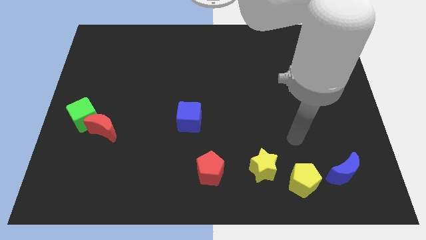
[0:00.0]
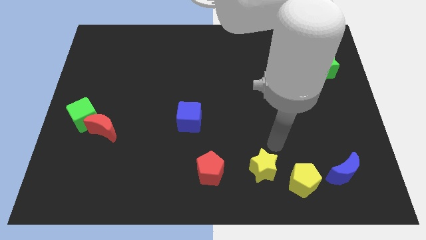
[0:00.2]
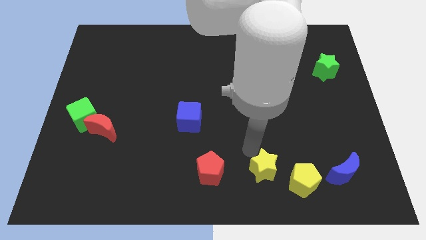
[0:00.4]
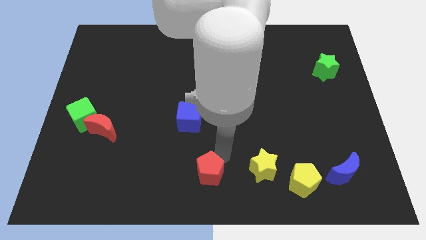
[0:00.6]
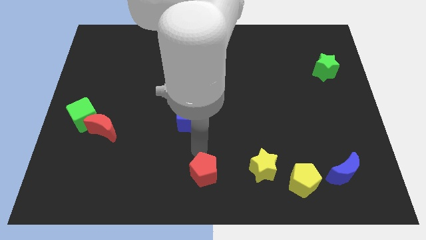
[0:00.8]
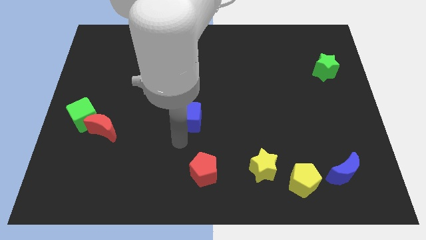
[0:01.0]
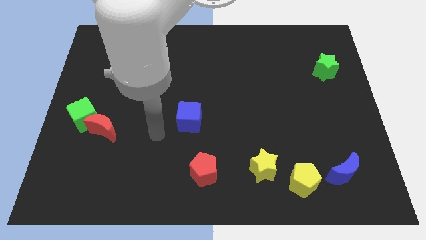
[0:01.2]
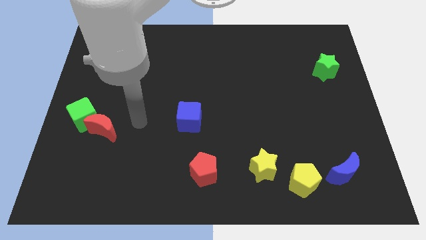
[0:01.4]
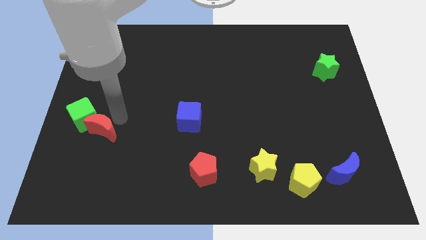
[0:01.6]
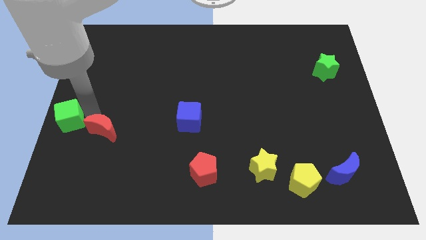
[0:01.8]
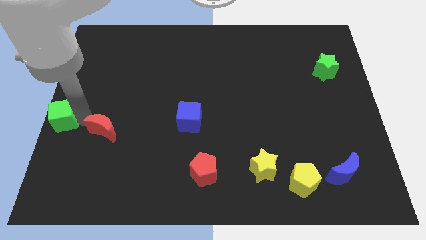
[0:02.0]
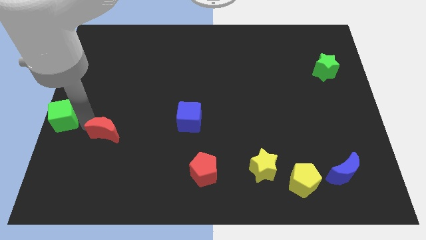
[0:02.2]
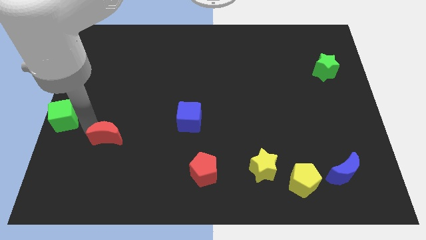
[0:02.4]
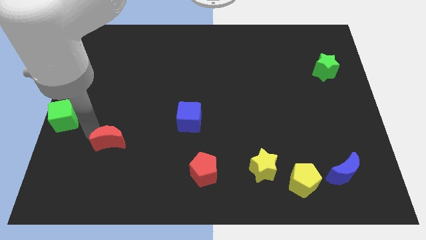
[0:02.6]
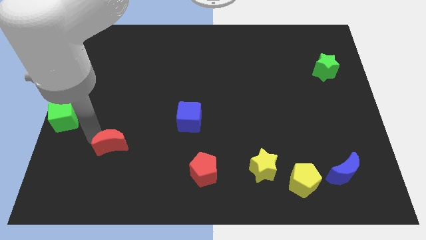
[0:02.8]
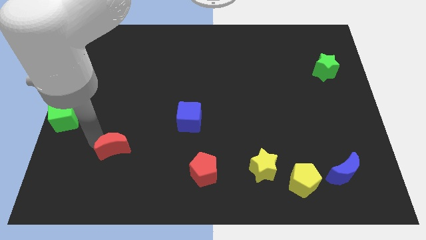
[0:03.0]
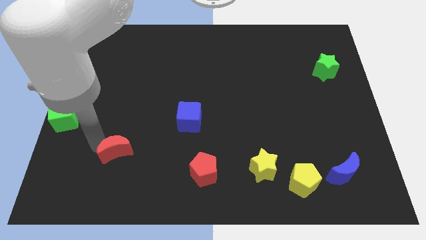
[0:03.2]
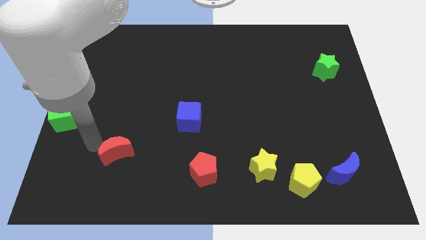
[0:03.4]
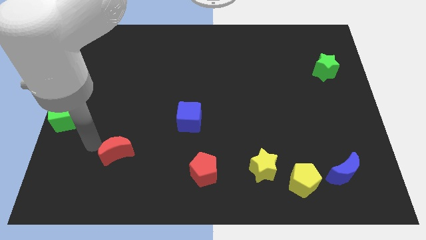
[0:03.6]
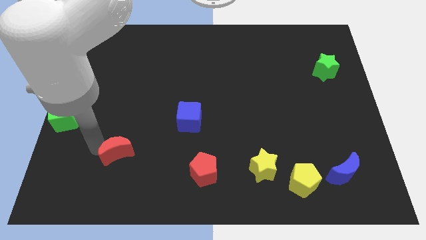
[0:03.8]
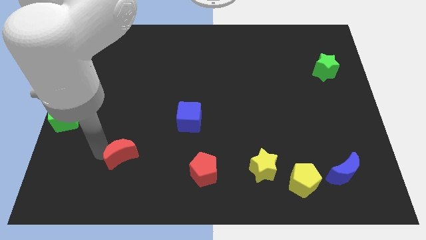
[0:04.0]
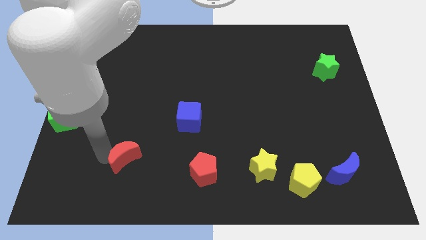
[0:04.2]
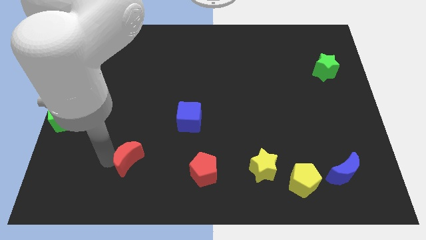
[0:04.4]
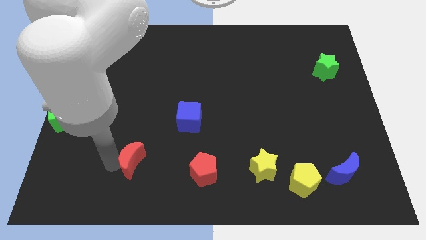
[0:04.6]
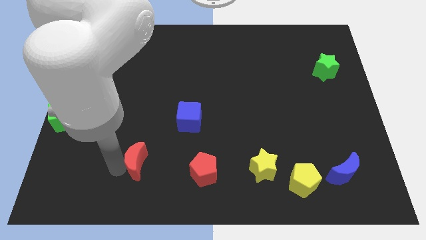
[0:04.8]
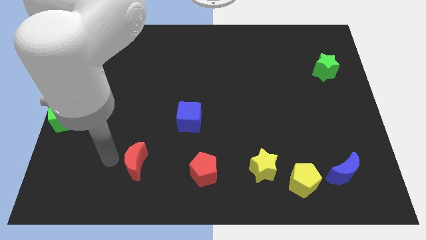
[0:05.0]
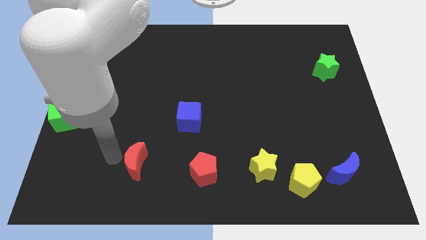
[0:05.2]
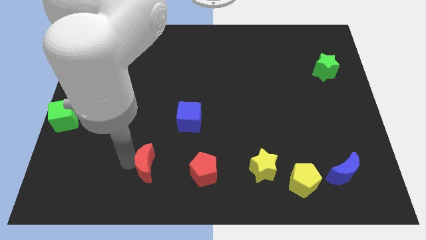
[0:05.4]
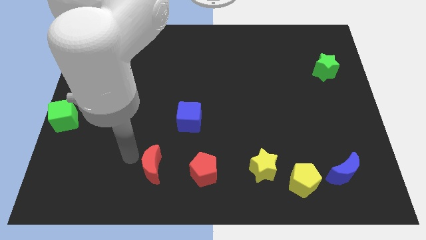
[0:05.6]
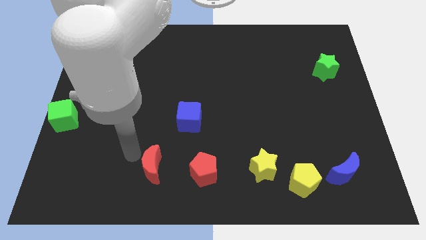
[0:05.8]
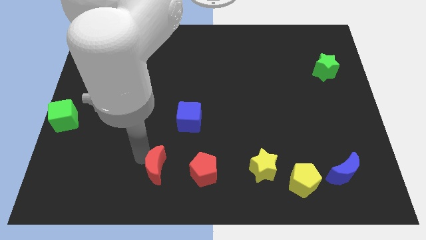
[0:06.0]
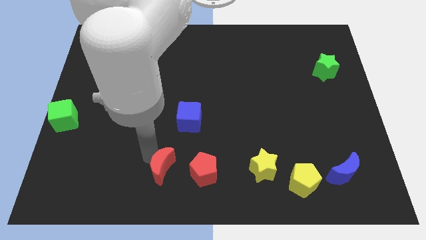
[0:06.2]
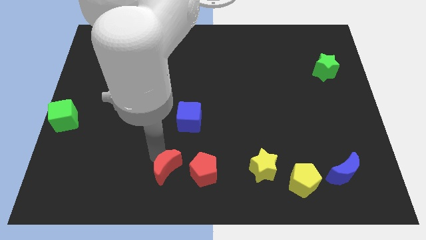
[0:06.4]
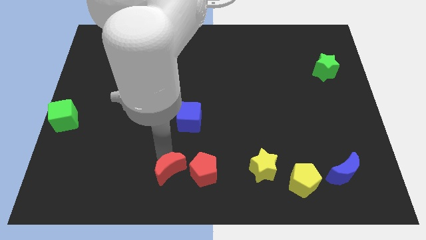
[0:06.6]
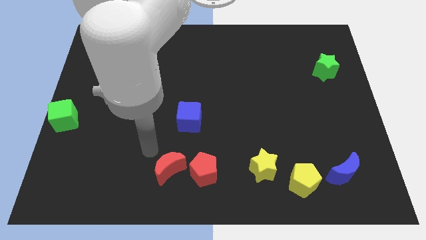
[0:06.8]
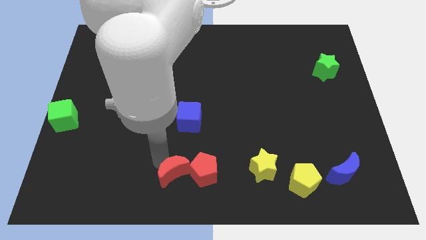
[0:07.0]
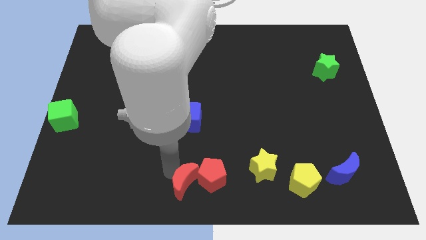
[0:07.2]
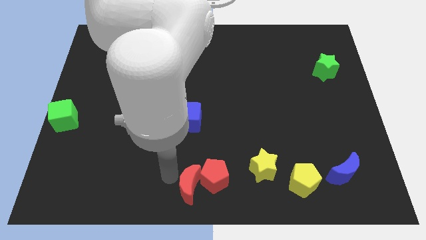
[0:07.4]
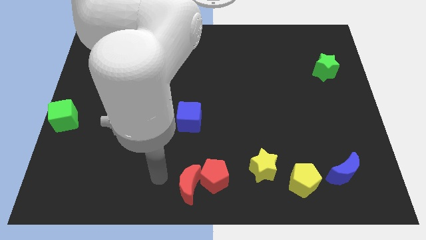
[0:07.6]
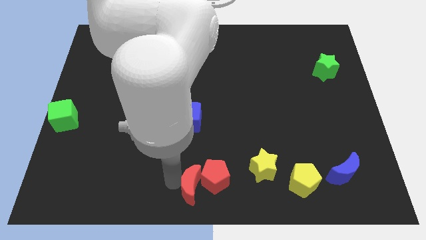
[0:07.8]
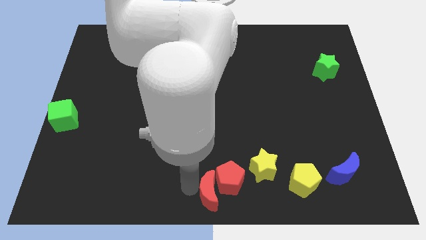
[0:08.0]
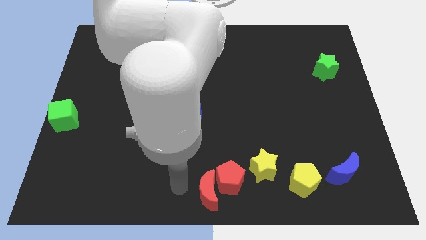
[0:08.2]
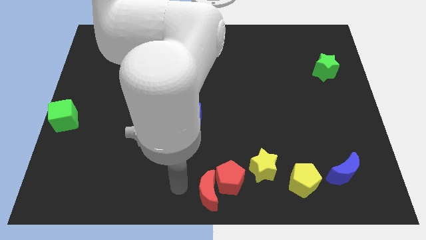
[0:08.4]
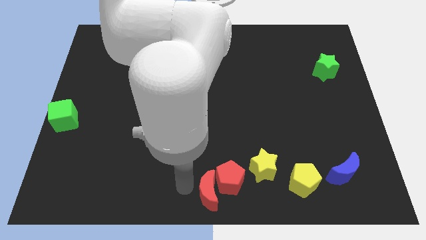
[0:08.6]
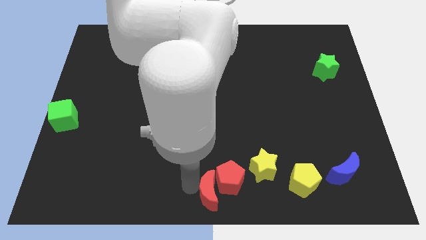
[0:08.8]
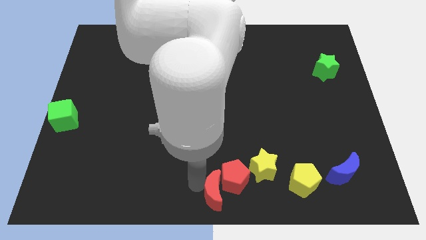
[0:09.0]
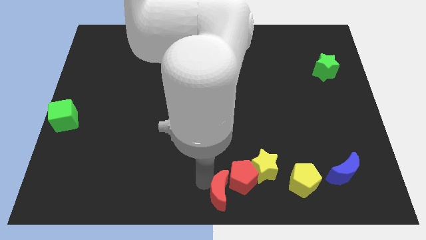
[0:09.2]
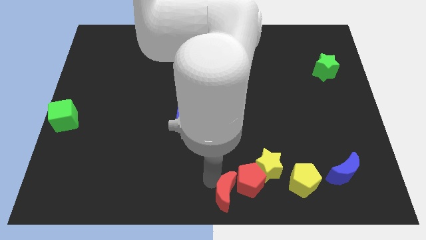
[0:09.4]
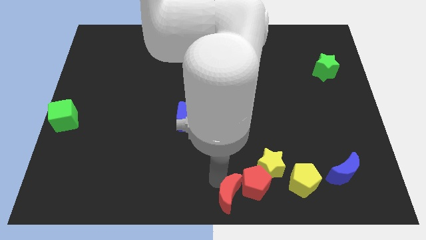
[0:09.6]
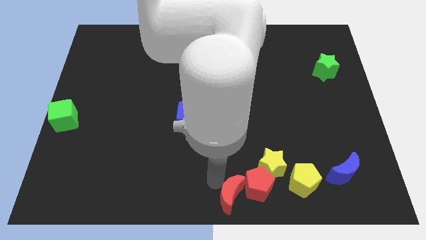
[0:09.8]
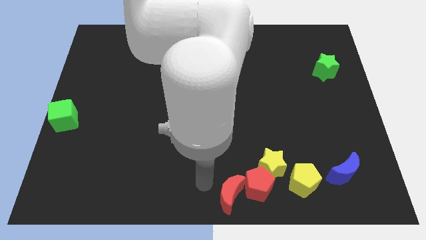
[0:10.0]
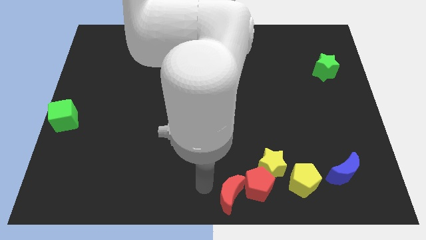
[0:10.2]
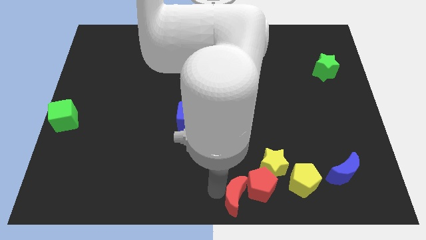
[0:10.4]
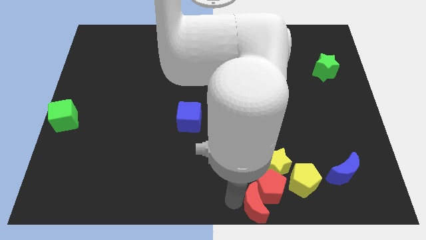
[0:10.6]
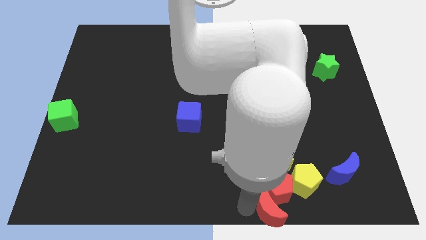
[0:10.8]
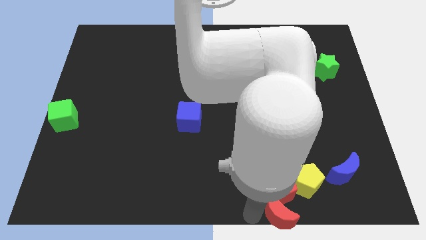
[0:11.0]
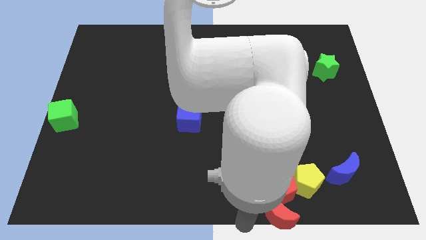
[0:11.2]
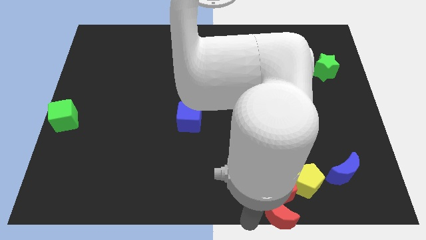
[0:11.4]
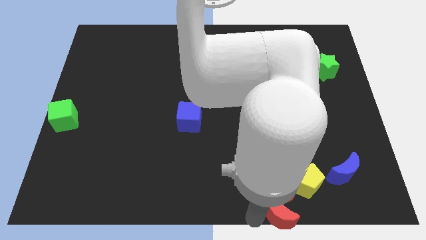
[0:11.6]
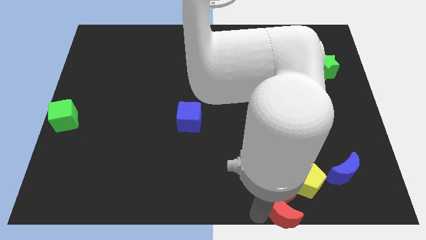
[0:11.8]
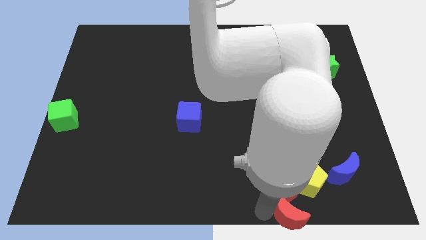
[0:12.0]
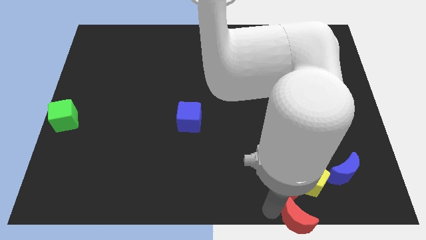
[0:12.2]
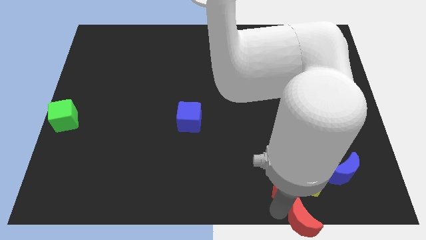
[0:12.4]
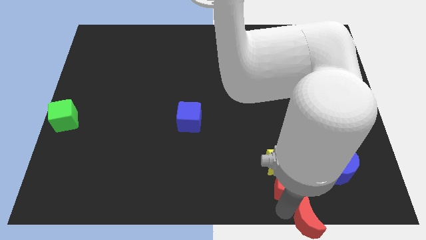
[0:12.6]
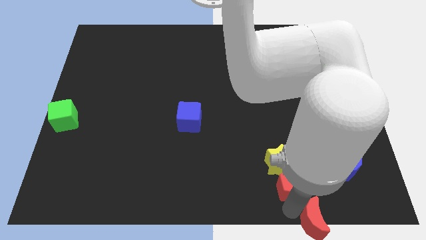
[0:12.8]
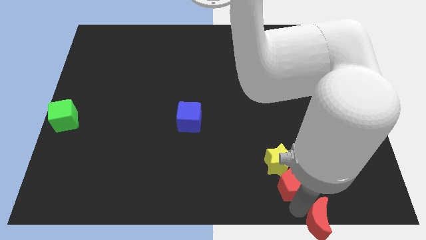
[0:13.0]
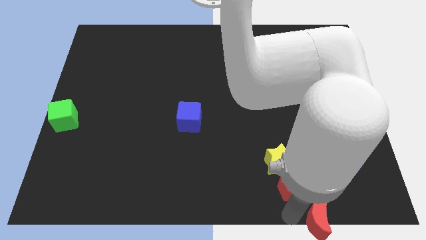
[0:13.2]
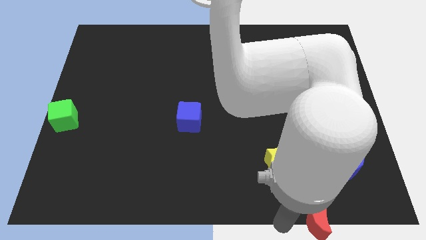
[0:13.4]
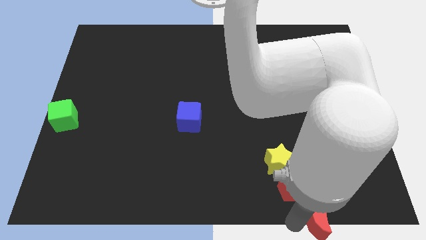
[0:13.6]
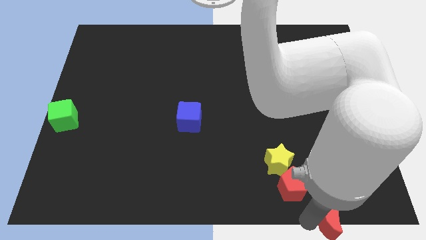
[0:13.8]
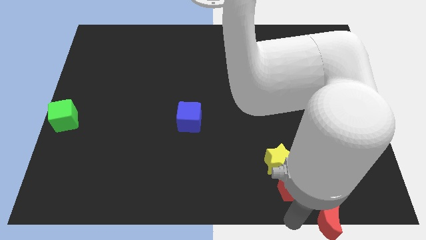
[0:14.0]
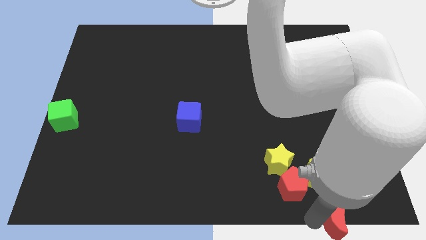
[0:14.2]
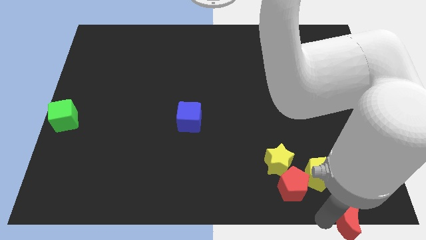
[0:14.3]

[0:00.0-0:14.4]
push the red moon to the bottom right
